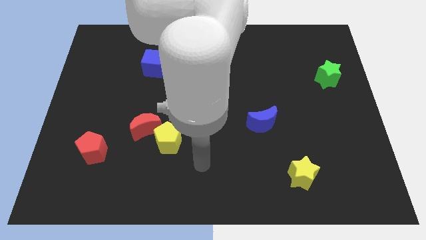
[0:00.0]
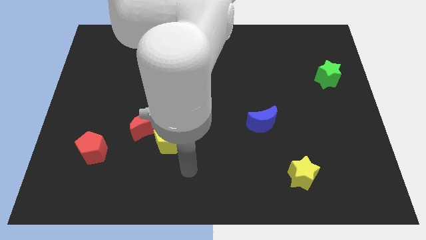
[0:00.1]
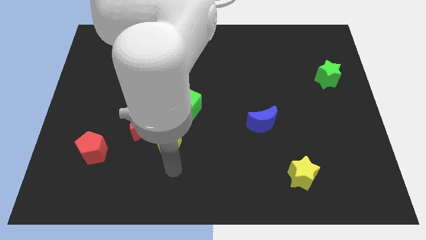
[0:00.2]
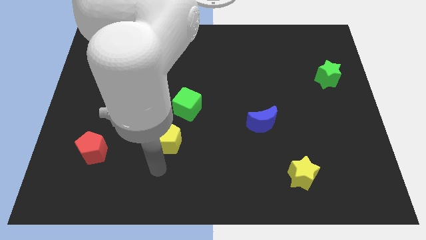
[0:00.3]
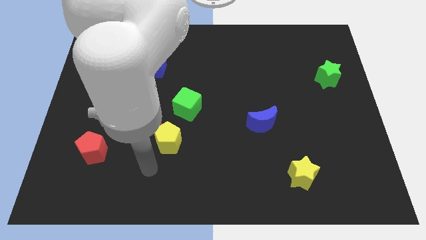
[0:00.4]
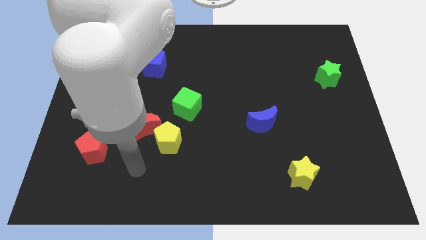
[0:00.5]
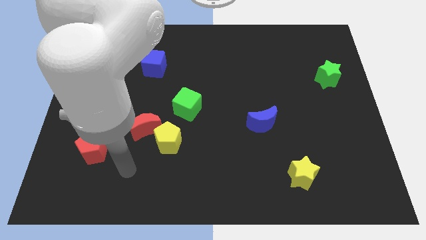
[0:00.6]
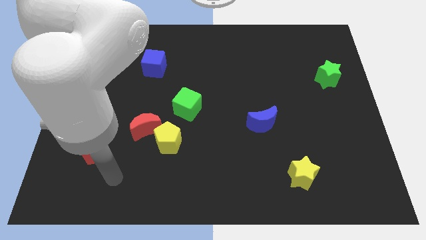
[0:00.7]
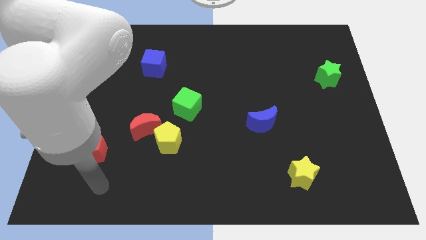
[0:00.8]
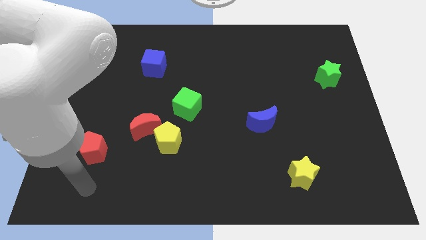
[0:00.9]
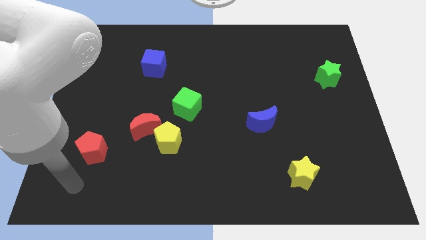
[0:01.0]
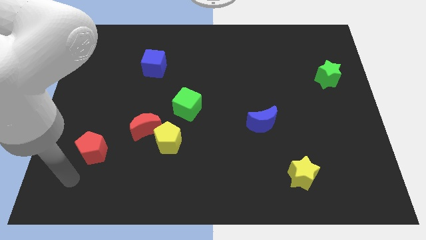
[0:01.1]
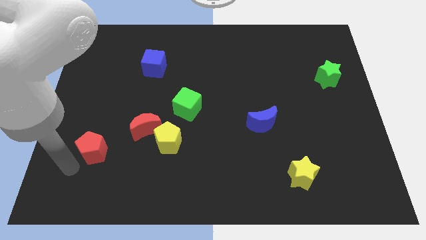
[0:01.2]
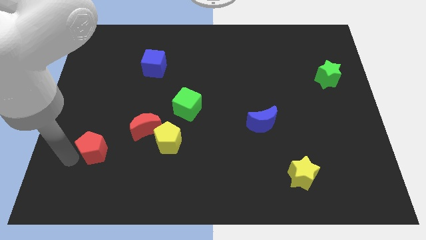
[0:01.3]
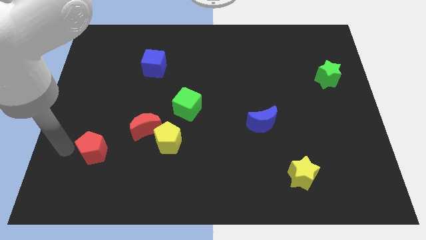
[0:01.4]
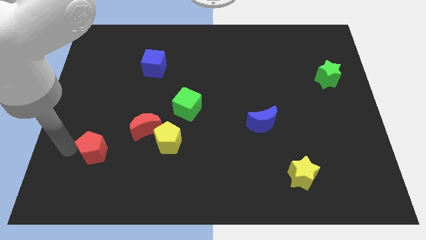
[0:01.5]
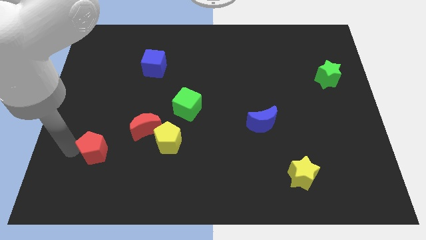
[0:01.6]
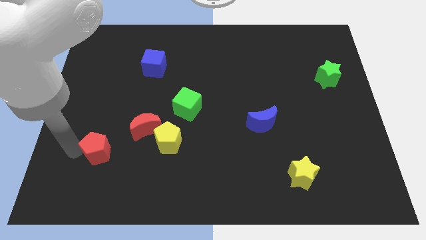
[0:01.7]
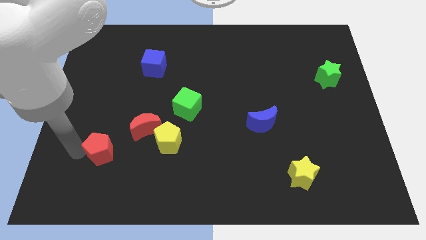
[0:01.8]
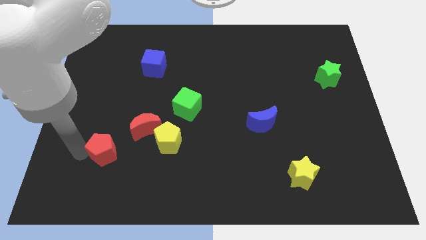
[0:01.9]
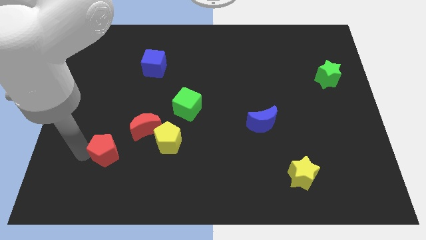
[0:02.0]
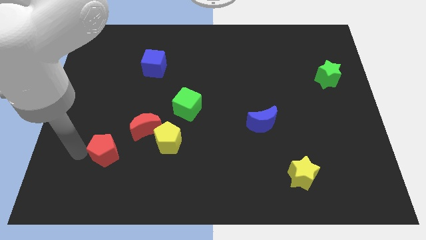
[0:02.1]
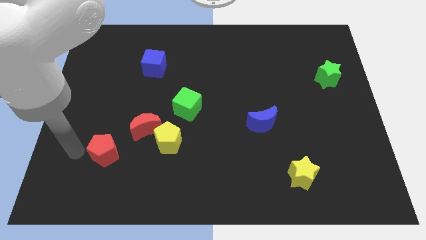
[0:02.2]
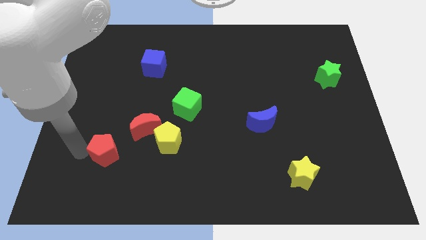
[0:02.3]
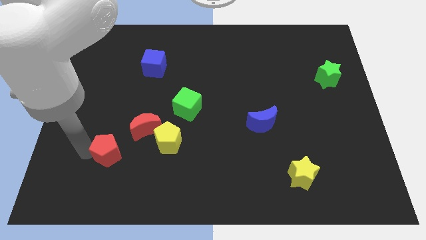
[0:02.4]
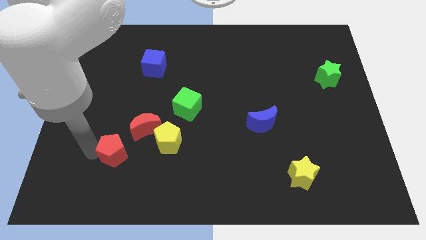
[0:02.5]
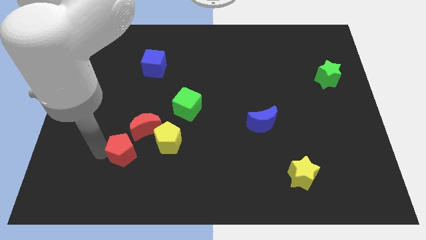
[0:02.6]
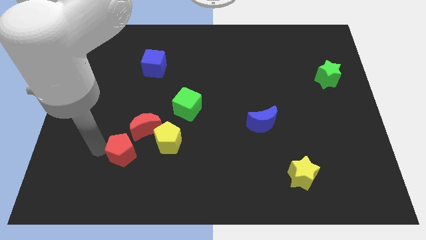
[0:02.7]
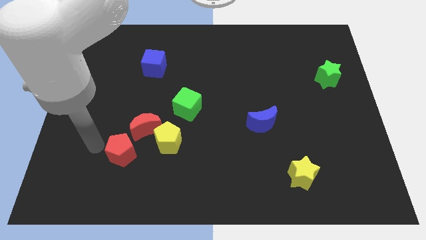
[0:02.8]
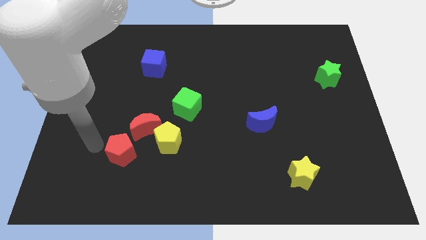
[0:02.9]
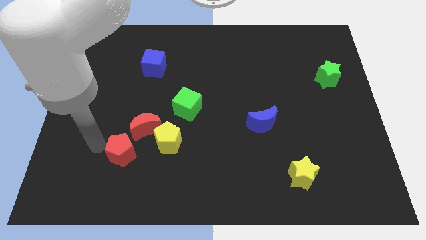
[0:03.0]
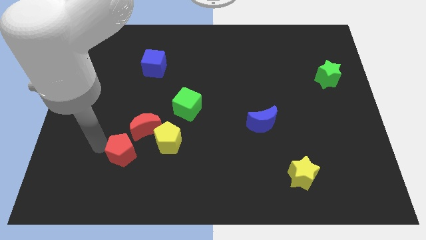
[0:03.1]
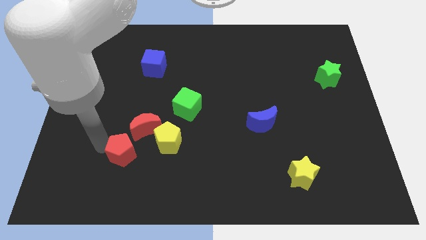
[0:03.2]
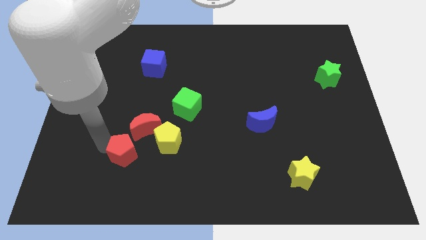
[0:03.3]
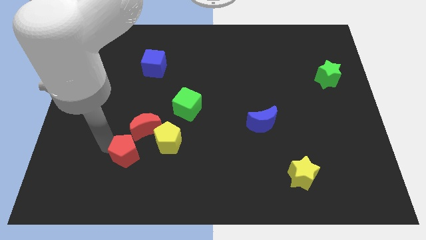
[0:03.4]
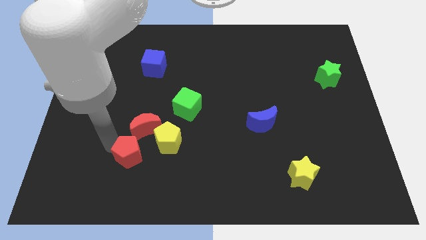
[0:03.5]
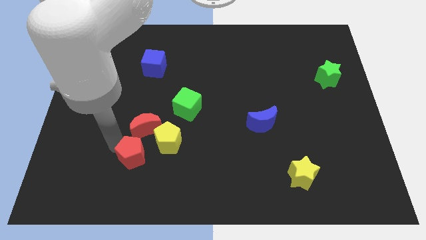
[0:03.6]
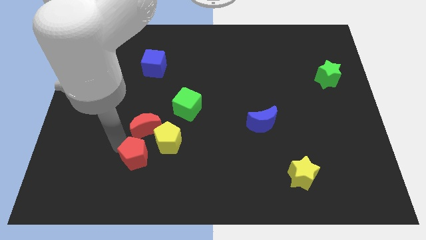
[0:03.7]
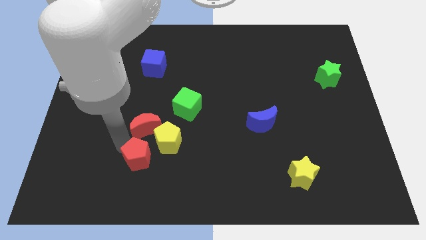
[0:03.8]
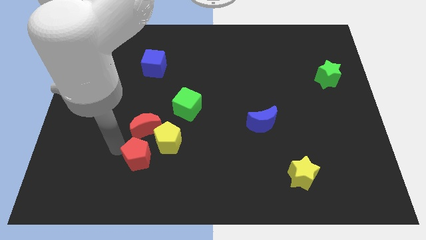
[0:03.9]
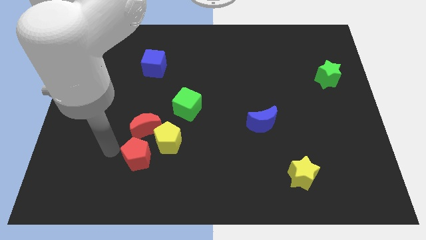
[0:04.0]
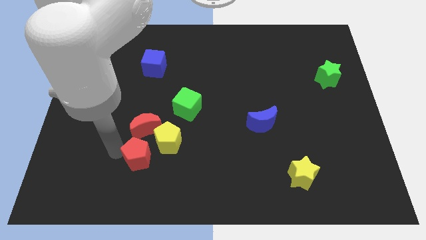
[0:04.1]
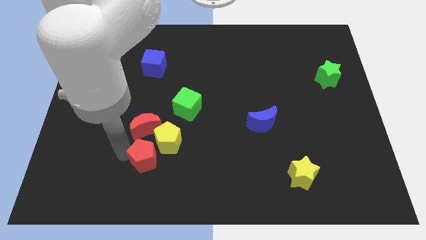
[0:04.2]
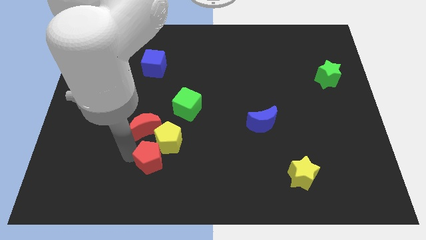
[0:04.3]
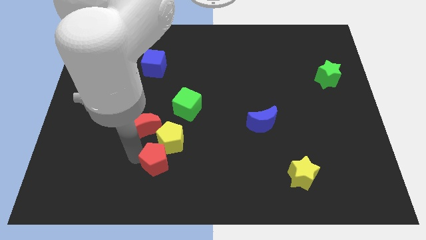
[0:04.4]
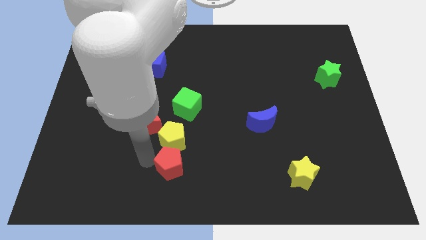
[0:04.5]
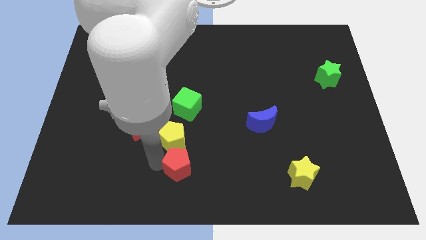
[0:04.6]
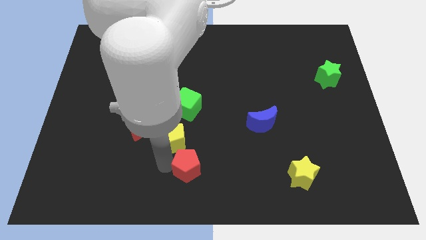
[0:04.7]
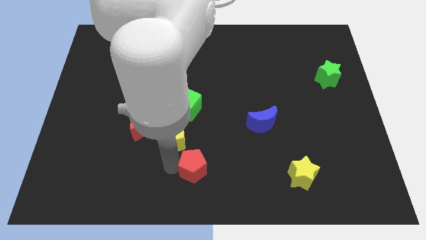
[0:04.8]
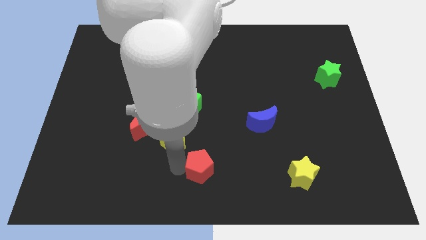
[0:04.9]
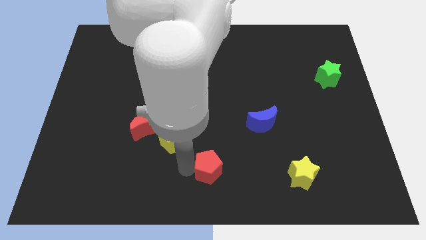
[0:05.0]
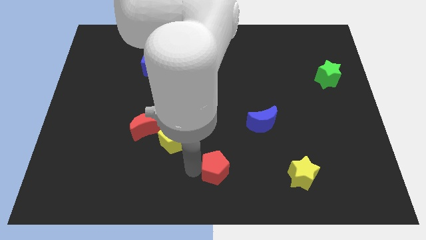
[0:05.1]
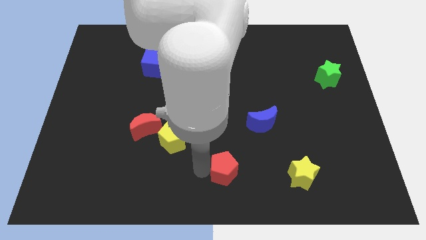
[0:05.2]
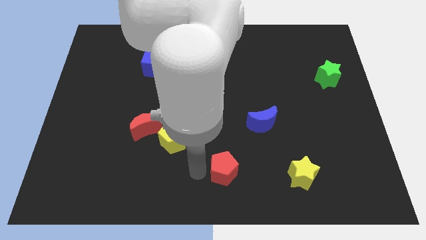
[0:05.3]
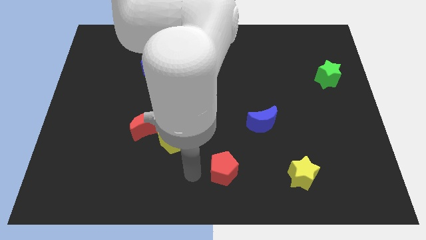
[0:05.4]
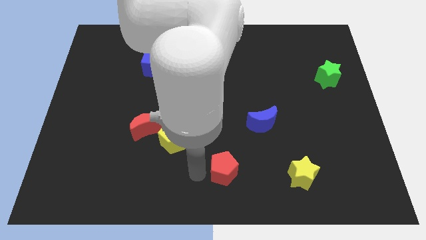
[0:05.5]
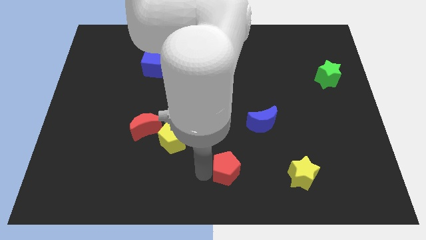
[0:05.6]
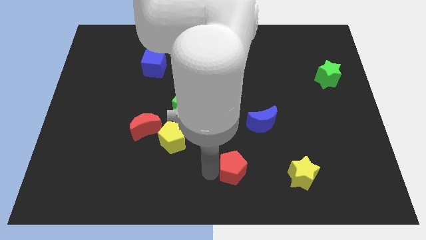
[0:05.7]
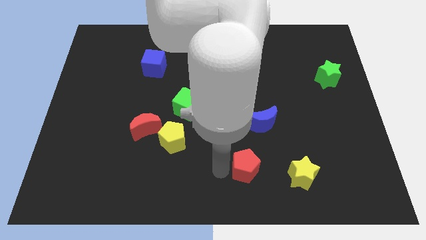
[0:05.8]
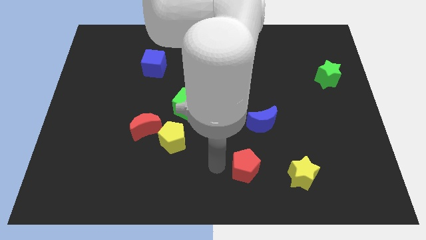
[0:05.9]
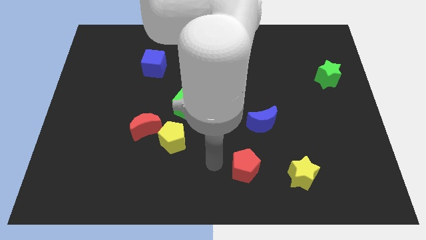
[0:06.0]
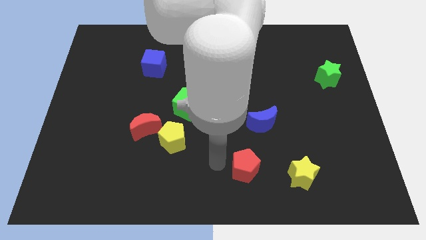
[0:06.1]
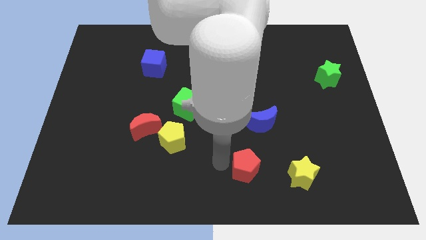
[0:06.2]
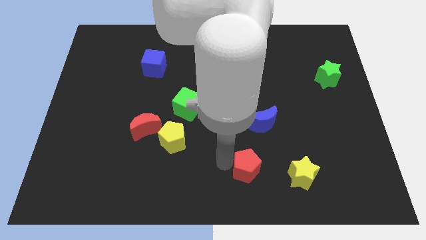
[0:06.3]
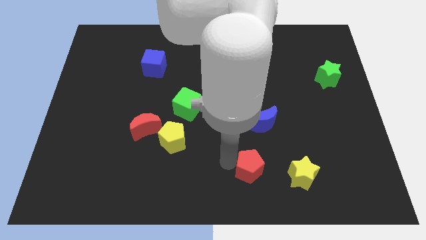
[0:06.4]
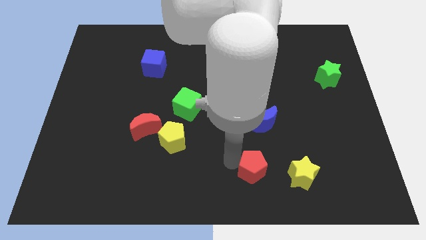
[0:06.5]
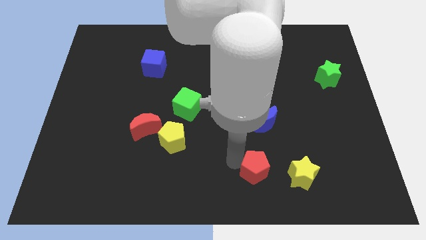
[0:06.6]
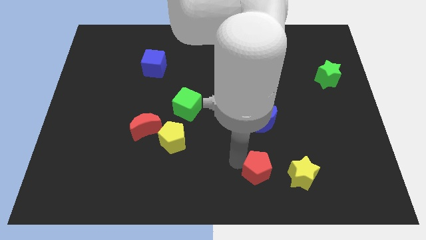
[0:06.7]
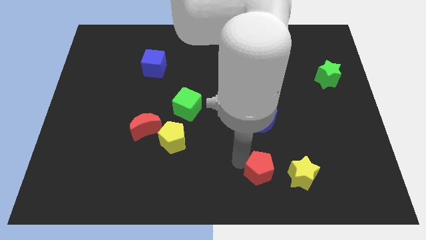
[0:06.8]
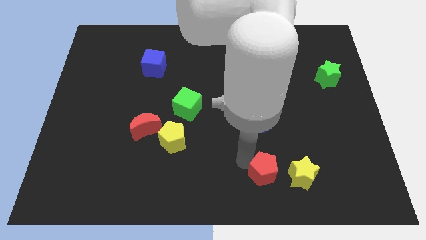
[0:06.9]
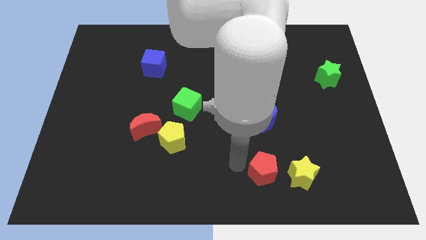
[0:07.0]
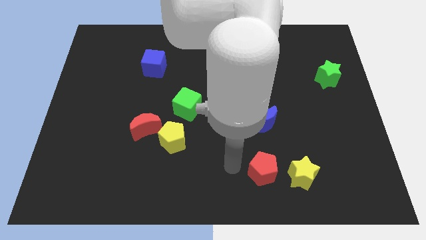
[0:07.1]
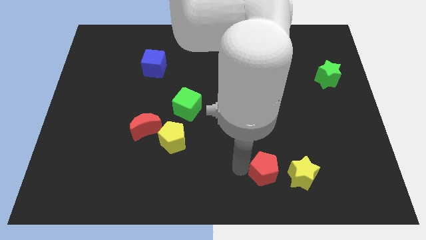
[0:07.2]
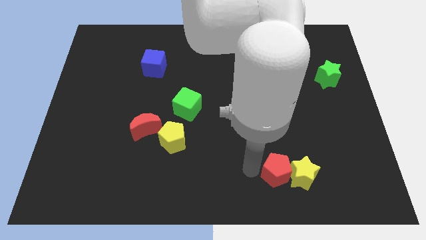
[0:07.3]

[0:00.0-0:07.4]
push the red pentagon close to the yellow star
